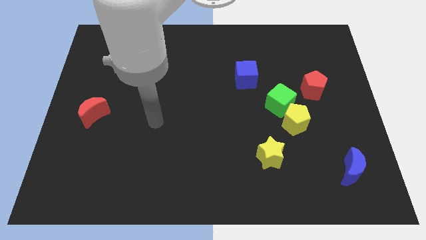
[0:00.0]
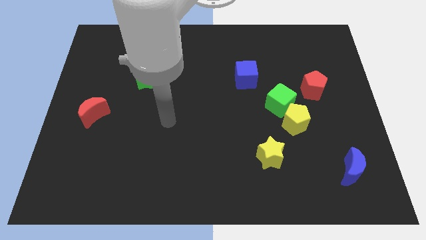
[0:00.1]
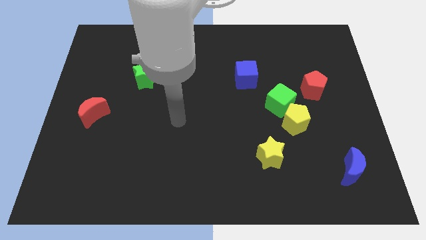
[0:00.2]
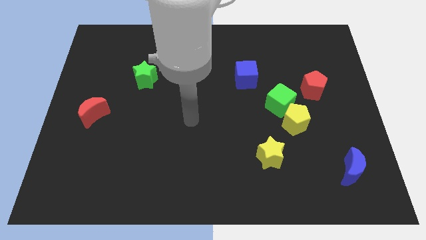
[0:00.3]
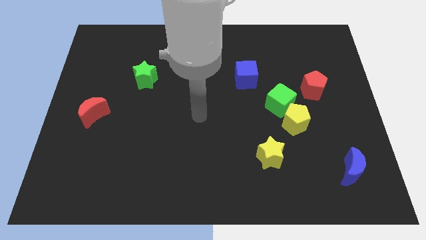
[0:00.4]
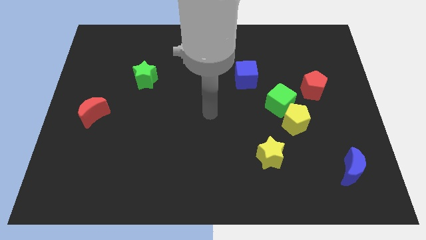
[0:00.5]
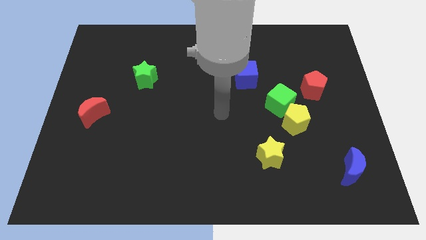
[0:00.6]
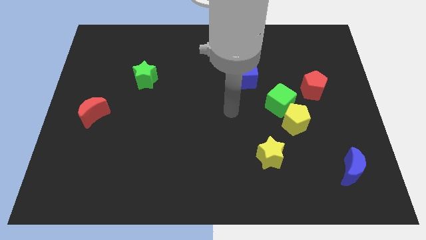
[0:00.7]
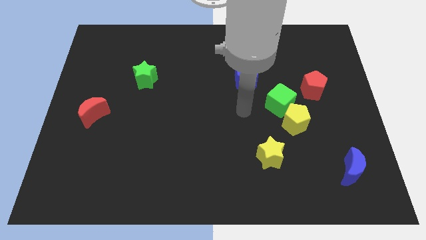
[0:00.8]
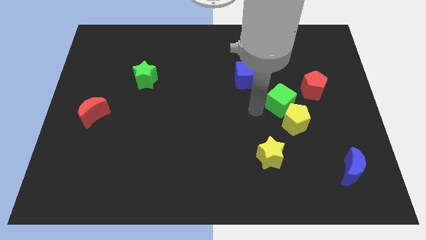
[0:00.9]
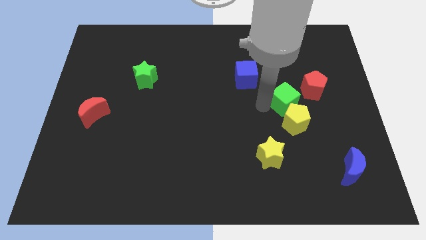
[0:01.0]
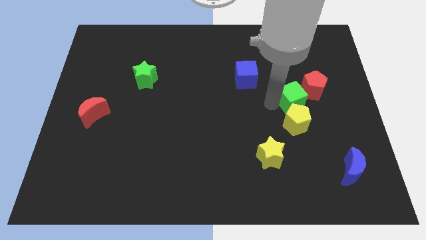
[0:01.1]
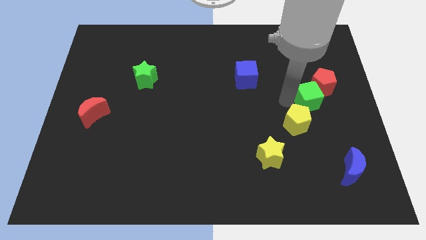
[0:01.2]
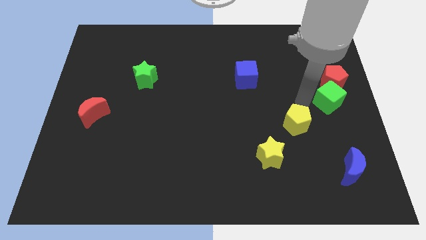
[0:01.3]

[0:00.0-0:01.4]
pull the yellow pentagon apart from the green cube

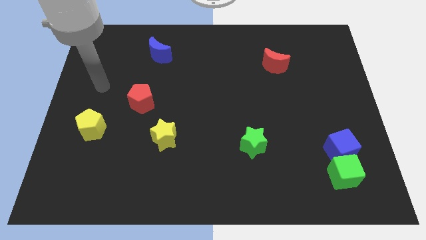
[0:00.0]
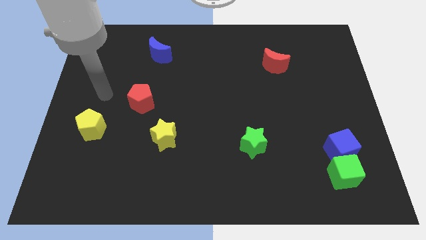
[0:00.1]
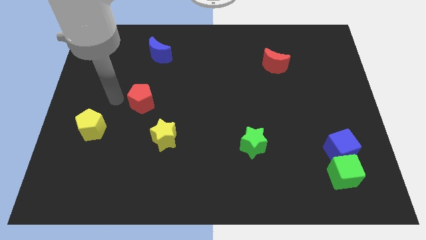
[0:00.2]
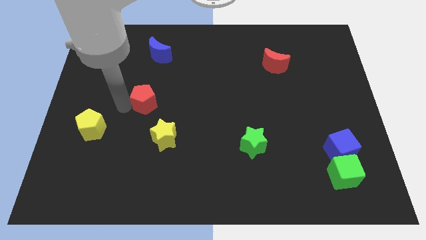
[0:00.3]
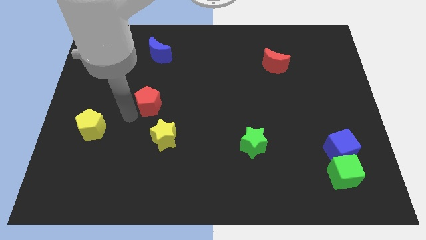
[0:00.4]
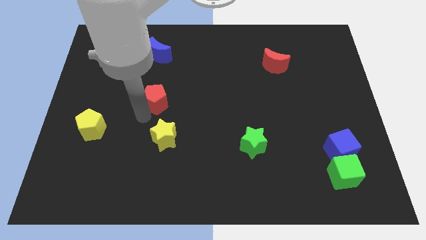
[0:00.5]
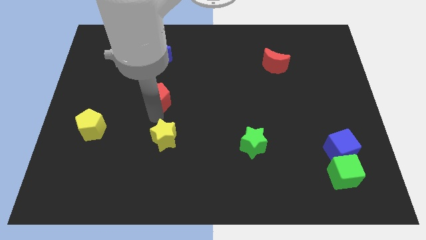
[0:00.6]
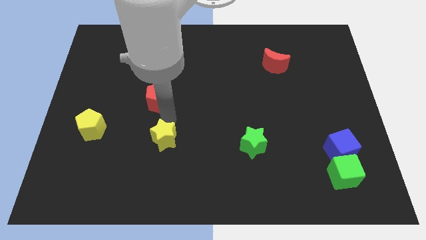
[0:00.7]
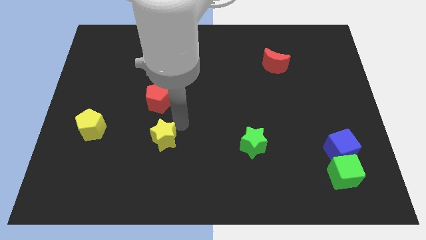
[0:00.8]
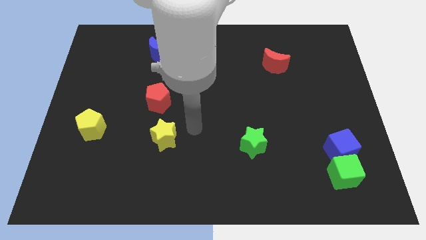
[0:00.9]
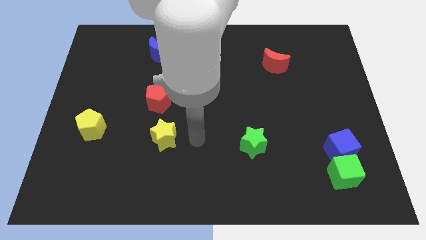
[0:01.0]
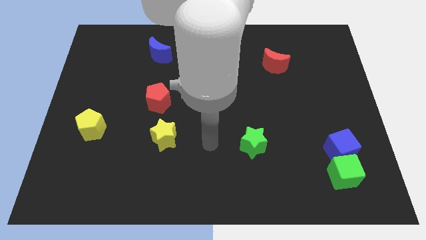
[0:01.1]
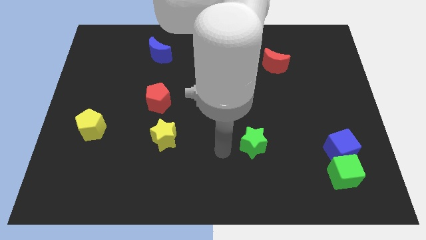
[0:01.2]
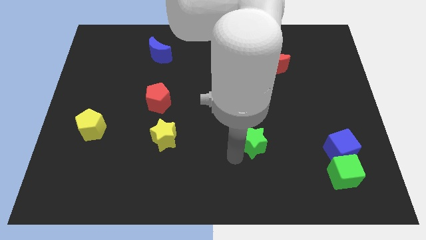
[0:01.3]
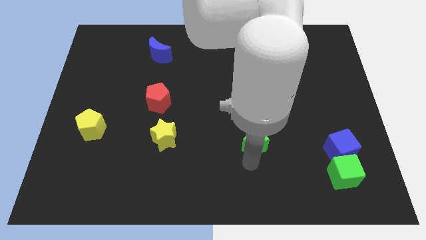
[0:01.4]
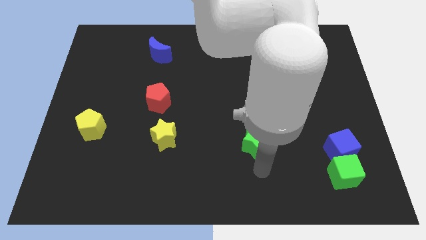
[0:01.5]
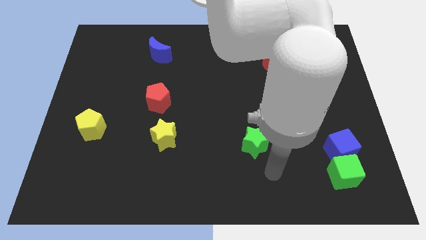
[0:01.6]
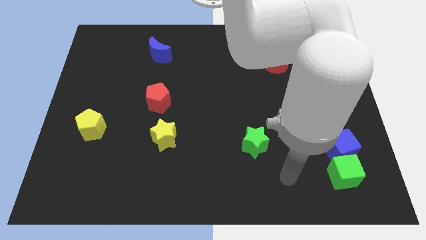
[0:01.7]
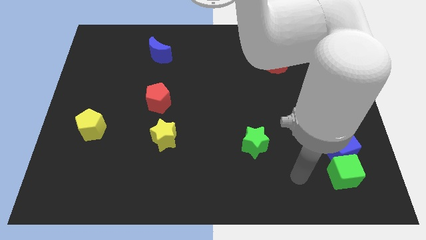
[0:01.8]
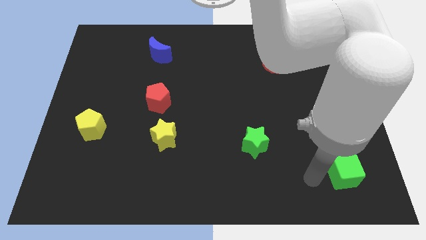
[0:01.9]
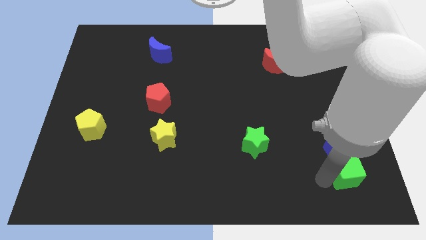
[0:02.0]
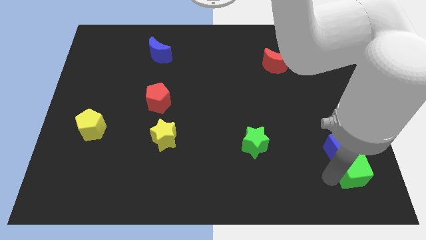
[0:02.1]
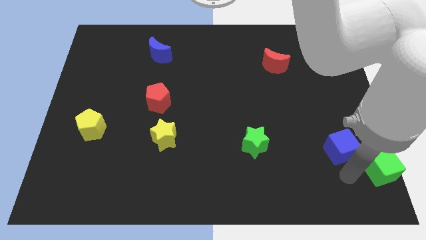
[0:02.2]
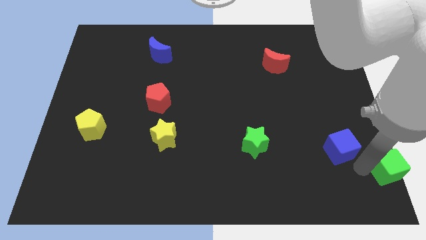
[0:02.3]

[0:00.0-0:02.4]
pull the blue cube apart from the green cube

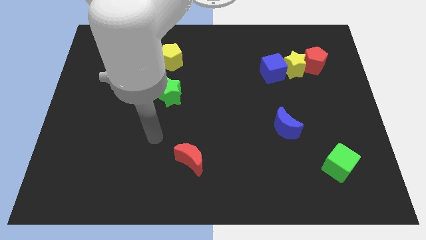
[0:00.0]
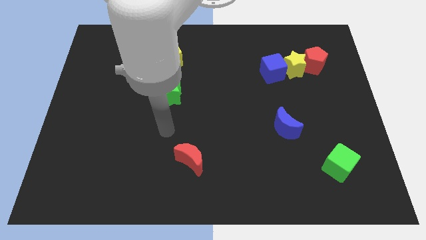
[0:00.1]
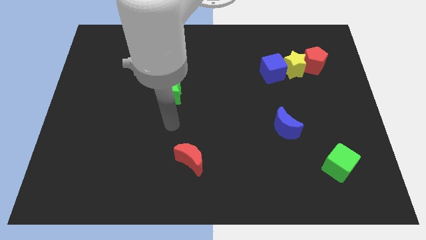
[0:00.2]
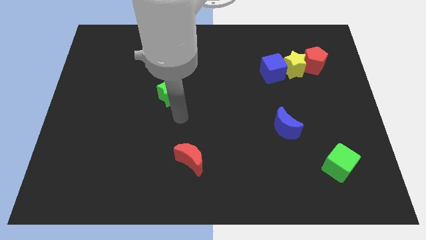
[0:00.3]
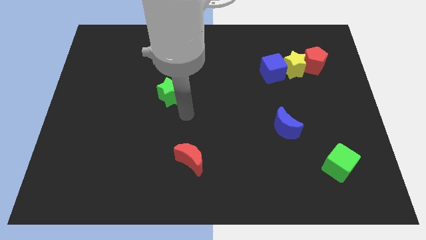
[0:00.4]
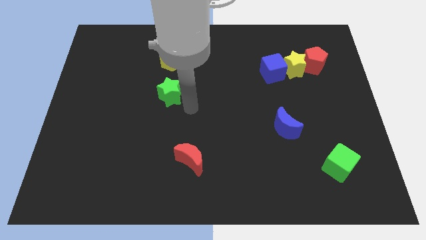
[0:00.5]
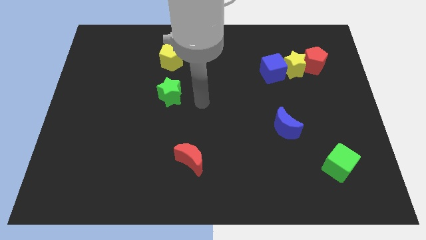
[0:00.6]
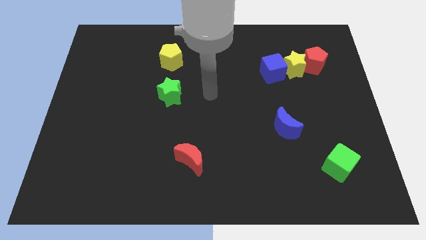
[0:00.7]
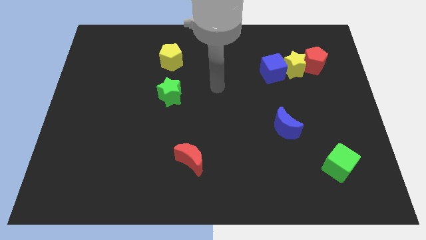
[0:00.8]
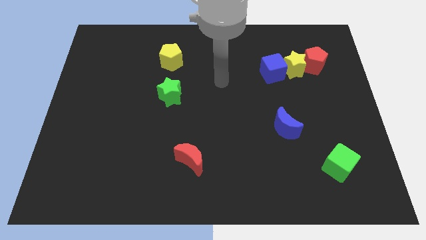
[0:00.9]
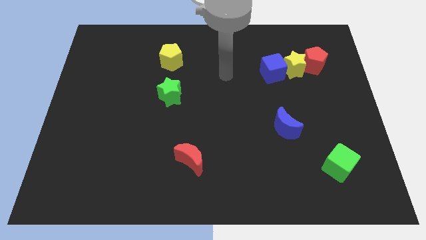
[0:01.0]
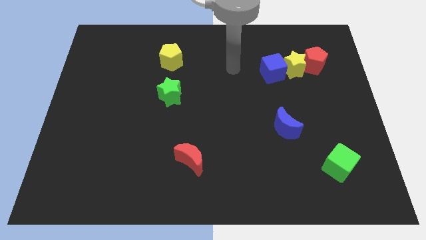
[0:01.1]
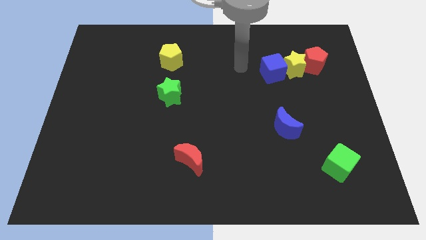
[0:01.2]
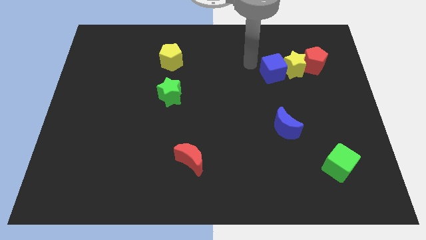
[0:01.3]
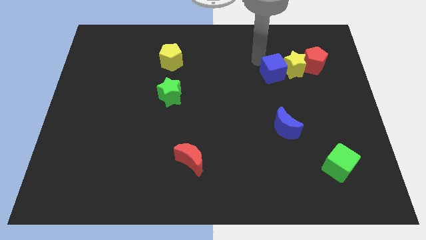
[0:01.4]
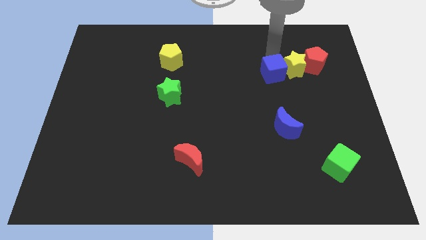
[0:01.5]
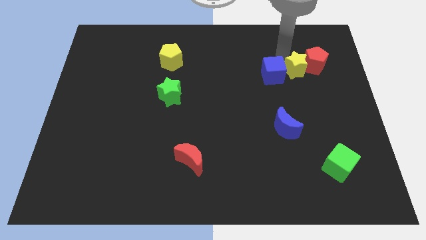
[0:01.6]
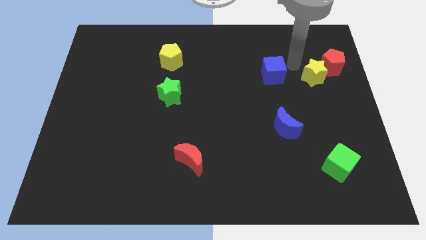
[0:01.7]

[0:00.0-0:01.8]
separate the blue cube from the yellow star

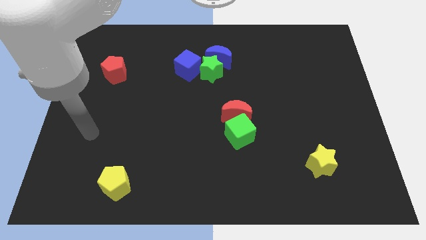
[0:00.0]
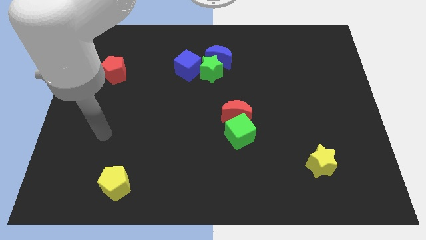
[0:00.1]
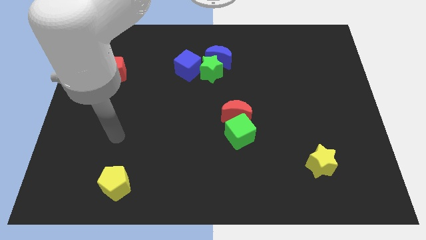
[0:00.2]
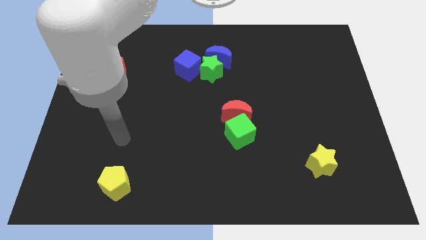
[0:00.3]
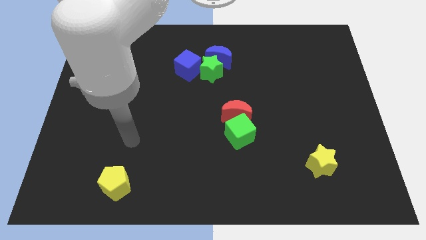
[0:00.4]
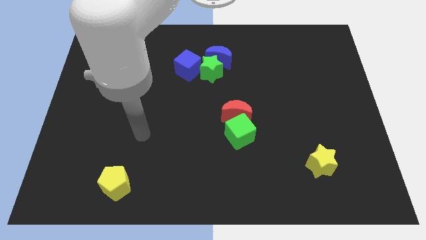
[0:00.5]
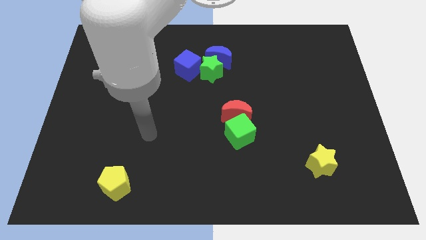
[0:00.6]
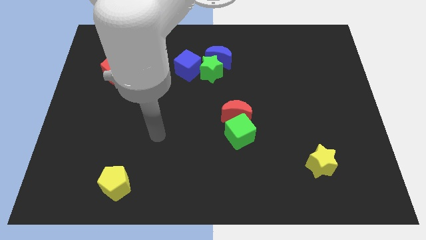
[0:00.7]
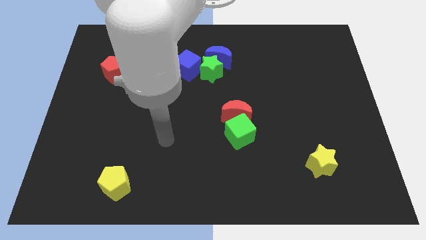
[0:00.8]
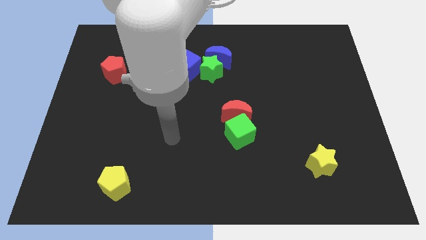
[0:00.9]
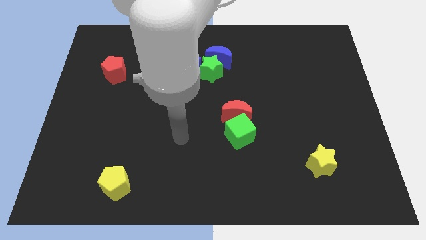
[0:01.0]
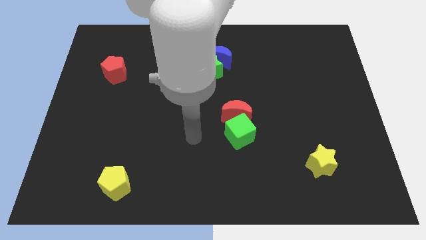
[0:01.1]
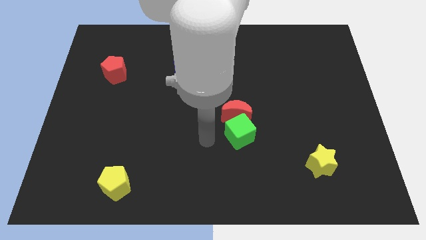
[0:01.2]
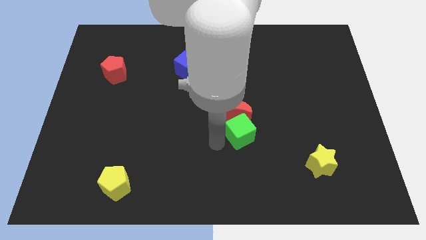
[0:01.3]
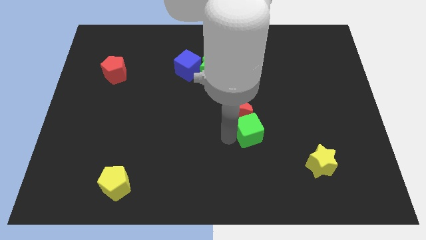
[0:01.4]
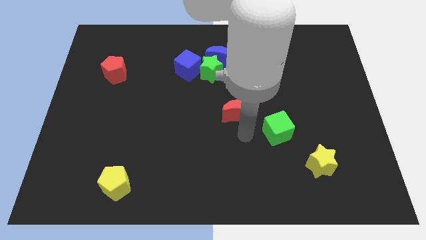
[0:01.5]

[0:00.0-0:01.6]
move the red moon away from the green cube

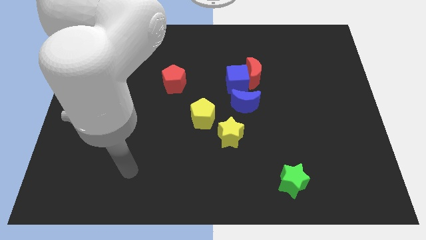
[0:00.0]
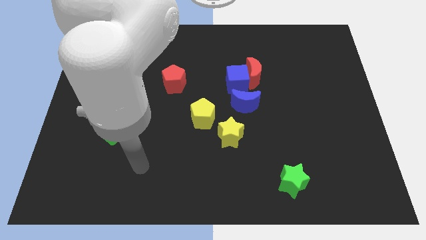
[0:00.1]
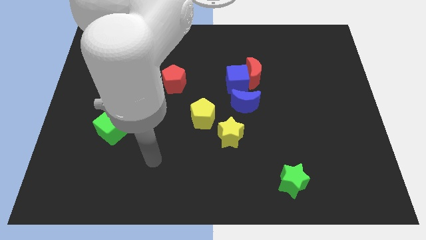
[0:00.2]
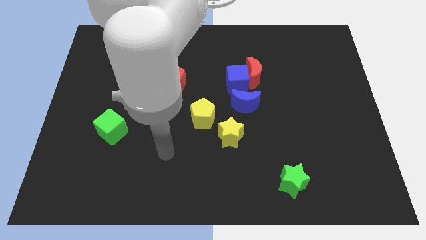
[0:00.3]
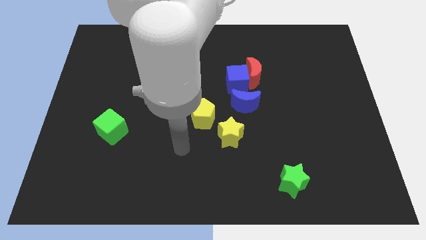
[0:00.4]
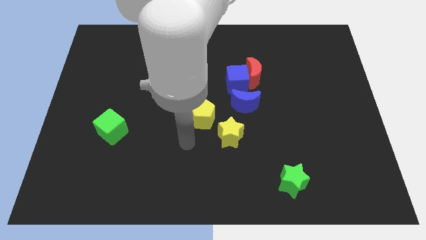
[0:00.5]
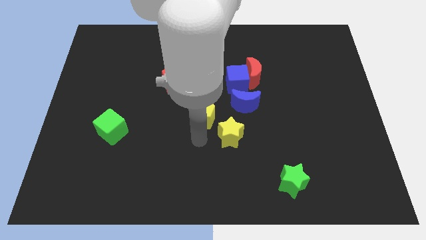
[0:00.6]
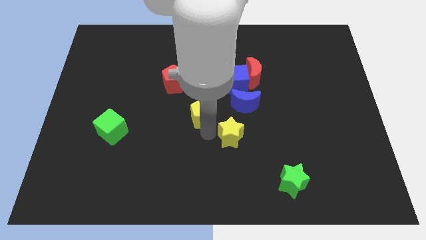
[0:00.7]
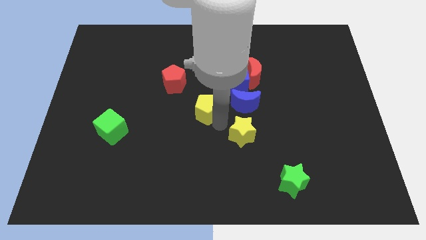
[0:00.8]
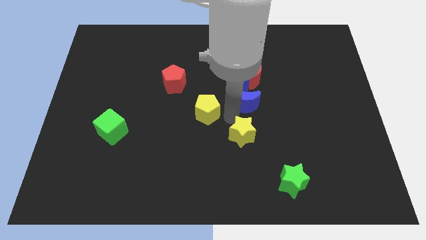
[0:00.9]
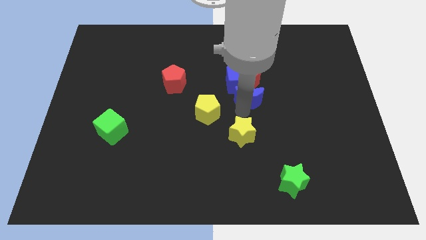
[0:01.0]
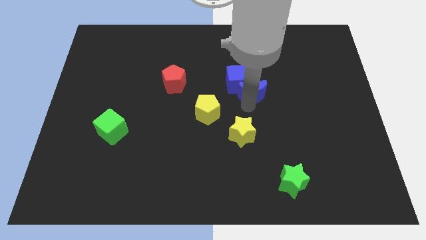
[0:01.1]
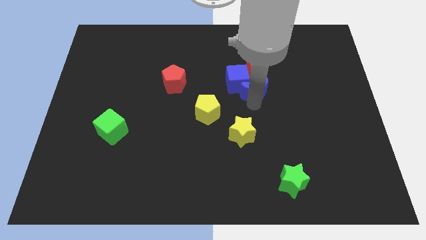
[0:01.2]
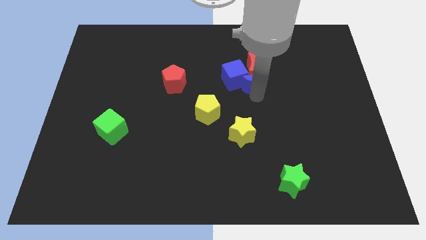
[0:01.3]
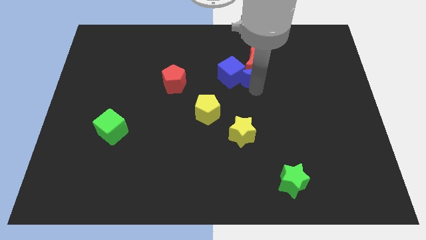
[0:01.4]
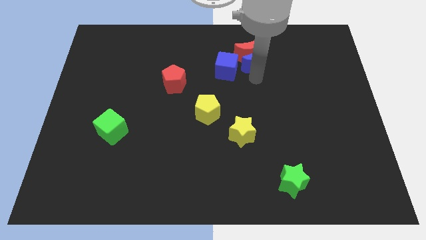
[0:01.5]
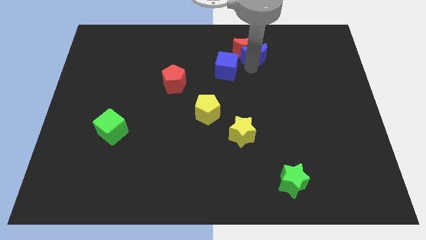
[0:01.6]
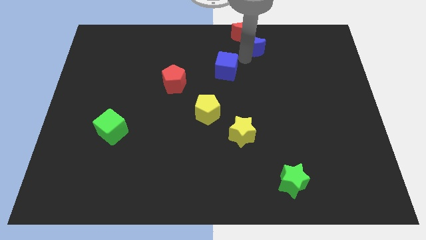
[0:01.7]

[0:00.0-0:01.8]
pull the blue cube apart from the red moon and blue moon

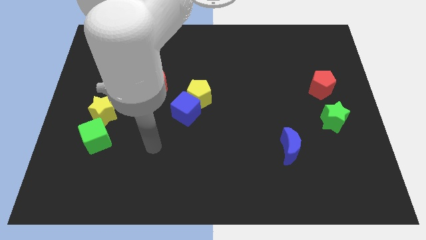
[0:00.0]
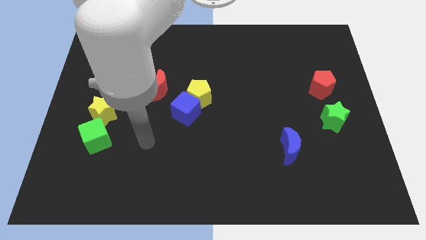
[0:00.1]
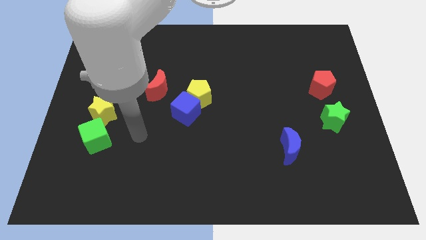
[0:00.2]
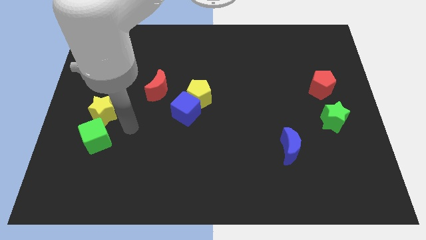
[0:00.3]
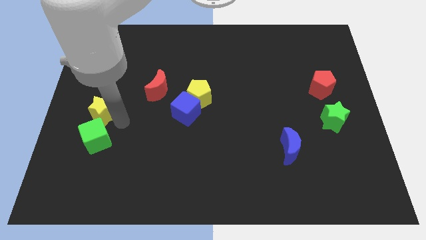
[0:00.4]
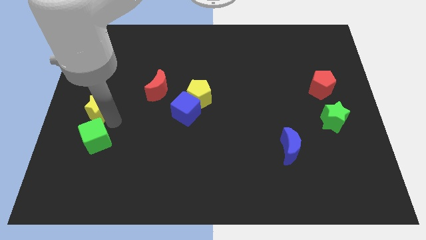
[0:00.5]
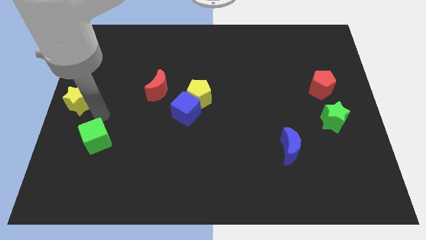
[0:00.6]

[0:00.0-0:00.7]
pull the green cube apart from the yellow star
